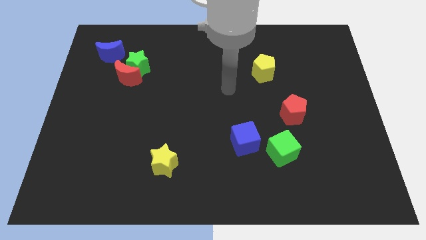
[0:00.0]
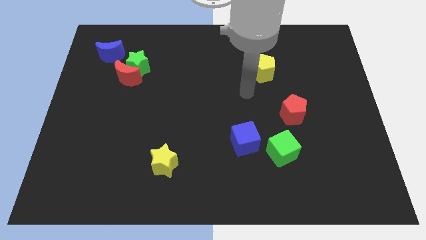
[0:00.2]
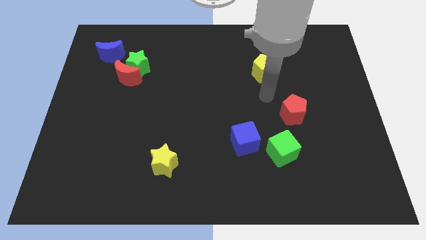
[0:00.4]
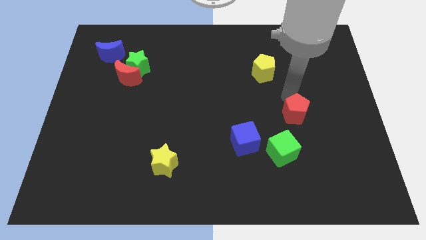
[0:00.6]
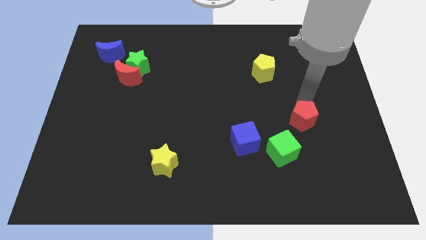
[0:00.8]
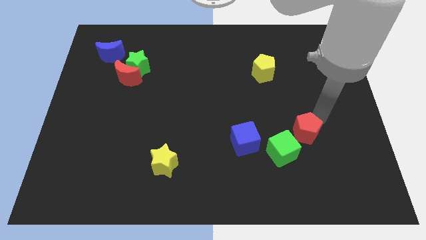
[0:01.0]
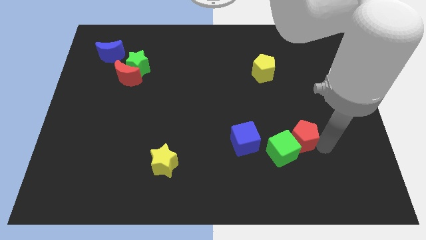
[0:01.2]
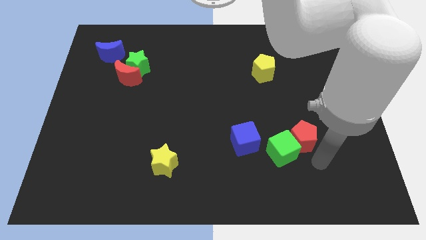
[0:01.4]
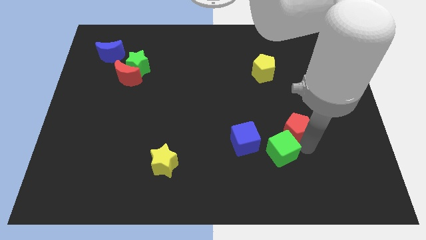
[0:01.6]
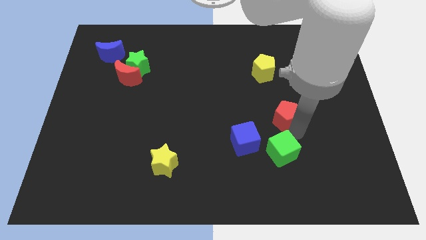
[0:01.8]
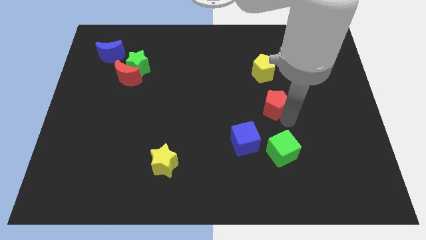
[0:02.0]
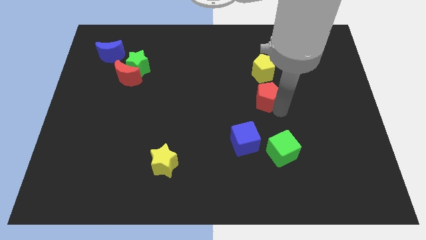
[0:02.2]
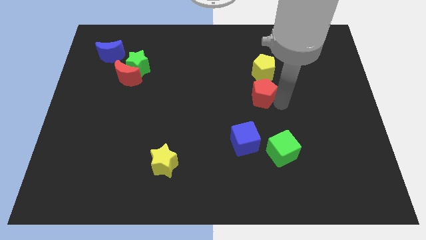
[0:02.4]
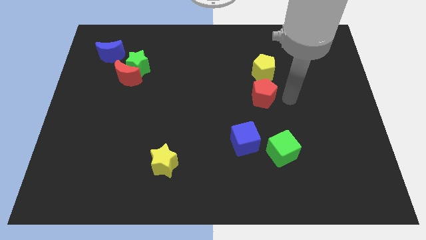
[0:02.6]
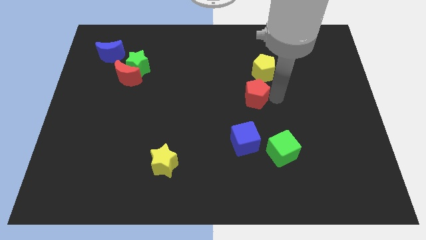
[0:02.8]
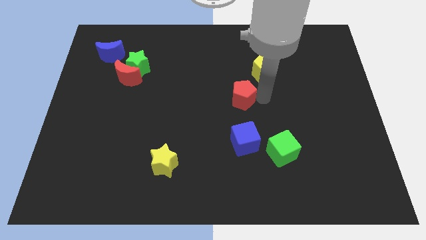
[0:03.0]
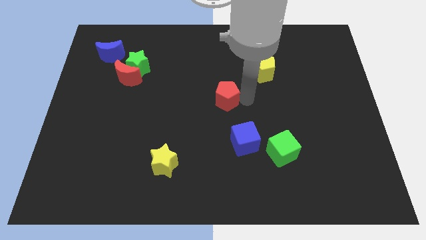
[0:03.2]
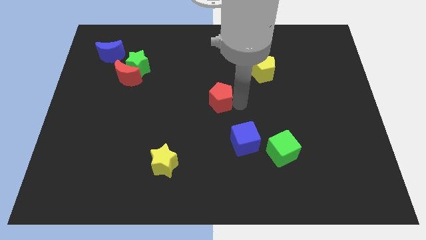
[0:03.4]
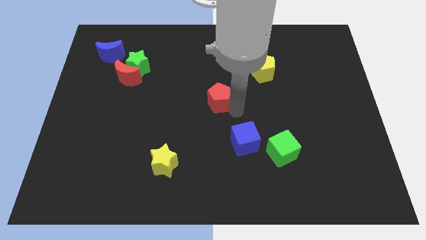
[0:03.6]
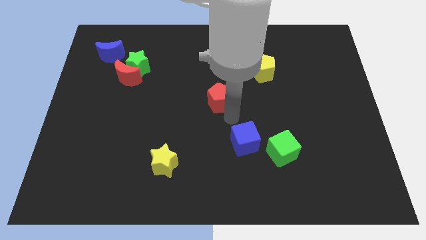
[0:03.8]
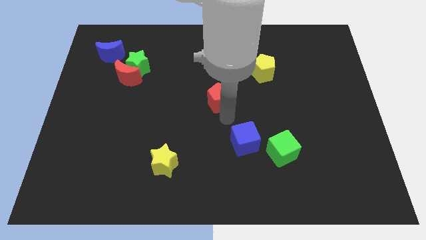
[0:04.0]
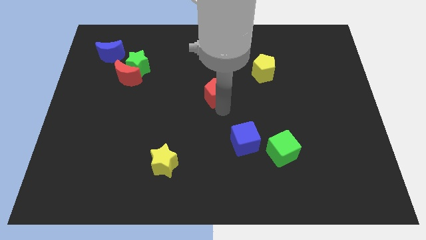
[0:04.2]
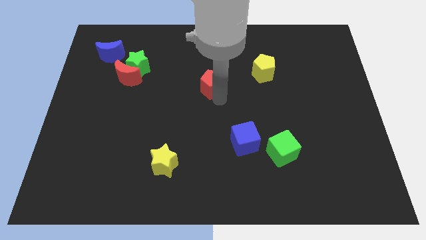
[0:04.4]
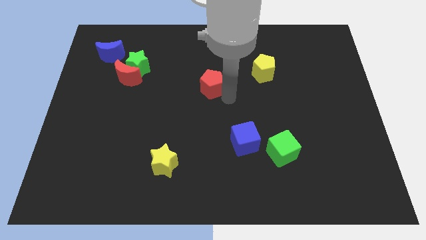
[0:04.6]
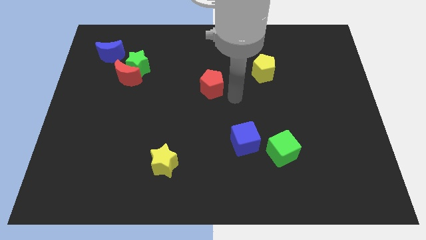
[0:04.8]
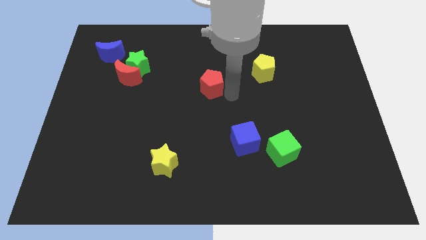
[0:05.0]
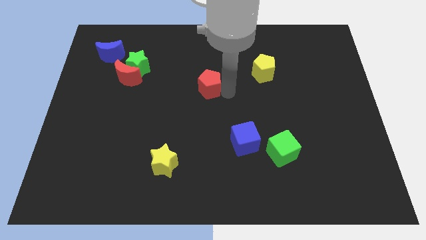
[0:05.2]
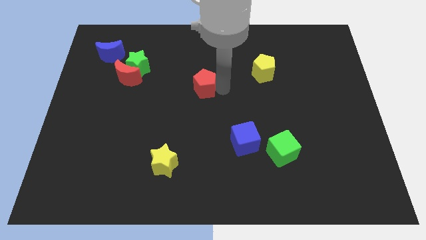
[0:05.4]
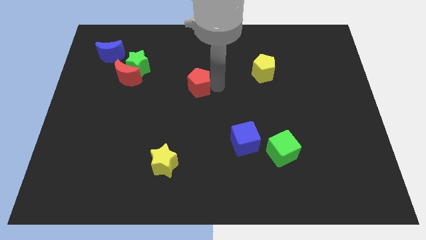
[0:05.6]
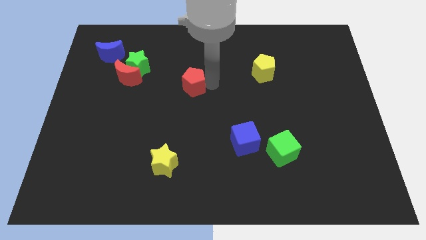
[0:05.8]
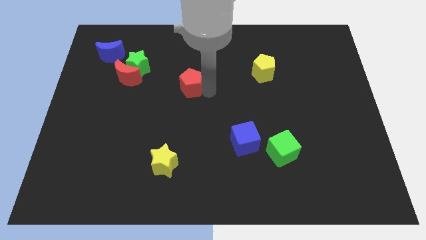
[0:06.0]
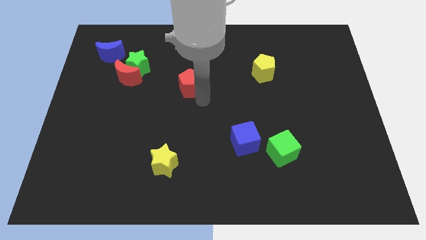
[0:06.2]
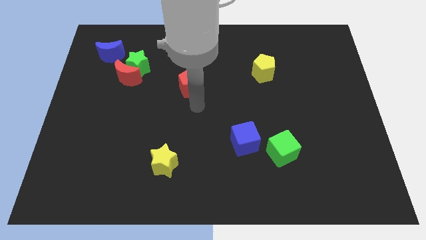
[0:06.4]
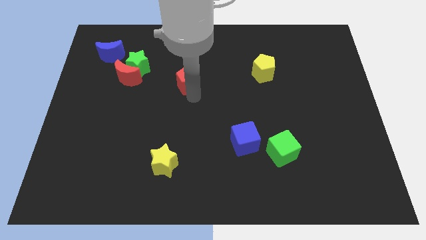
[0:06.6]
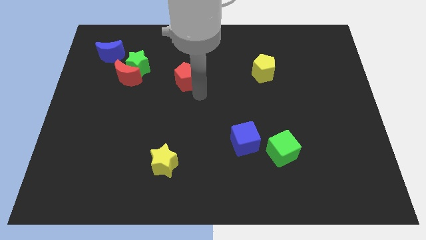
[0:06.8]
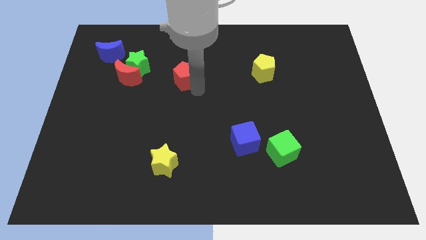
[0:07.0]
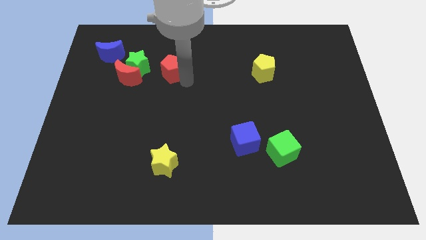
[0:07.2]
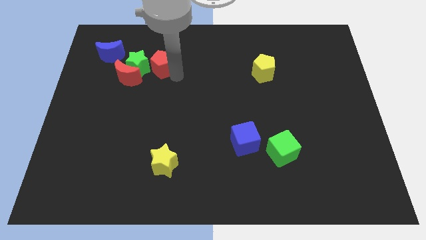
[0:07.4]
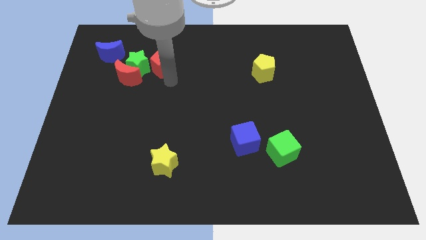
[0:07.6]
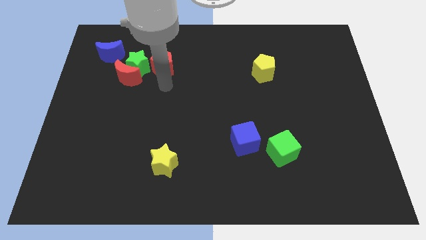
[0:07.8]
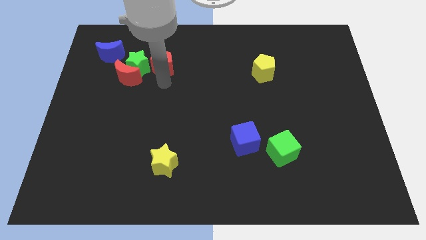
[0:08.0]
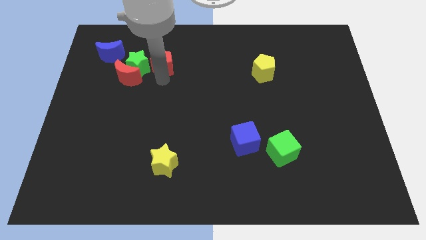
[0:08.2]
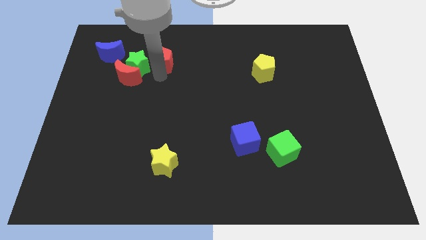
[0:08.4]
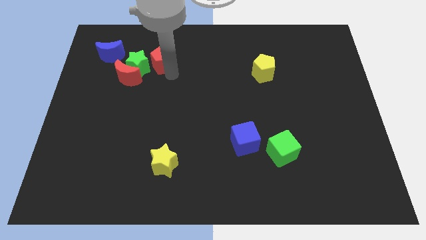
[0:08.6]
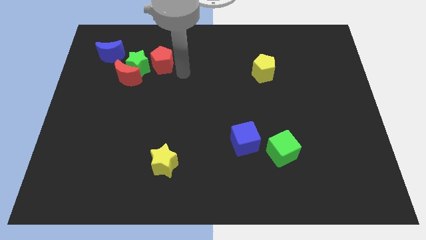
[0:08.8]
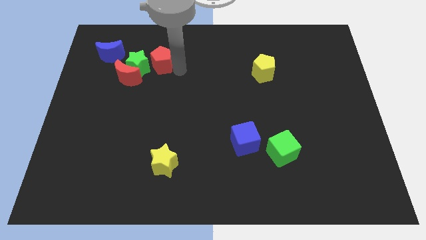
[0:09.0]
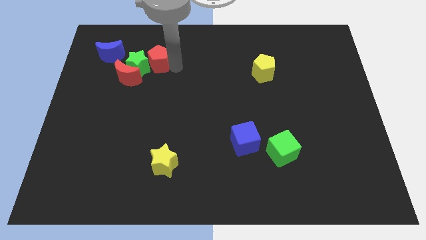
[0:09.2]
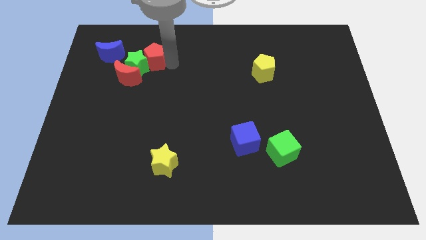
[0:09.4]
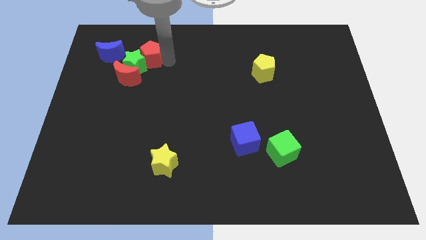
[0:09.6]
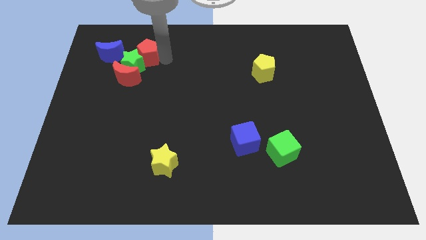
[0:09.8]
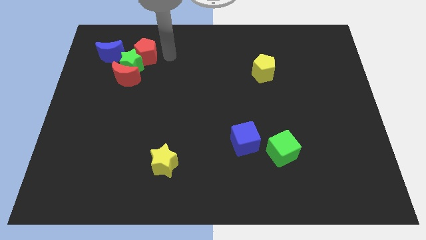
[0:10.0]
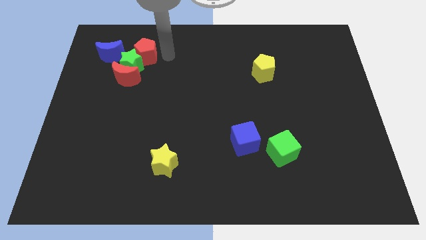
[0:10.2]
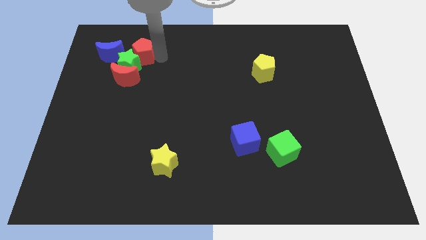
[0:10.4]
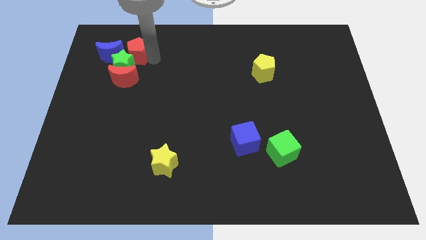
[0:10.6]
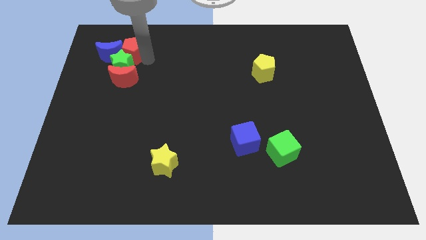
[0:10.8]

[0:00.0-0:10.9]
move the red pentagon close to the blue moon

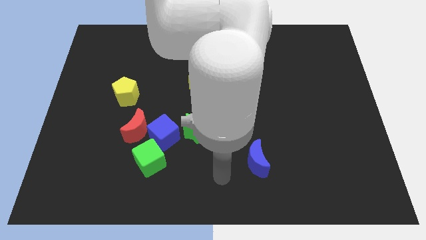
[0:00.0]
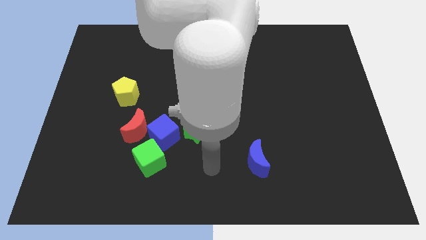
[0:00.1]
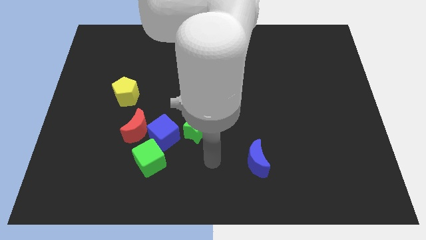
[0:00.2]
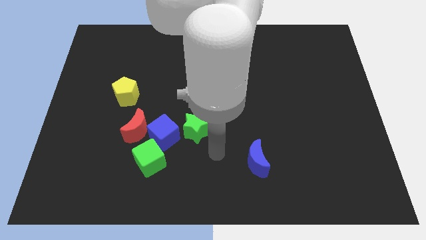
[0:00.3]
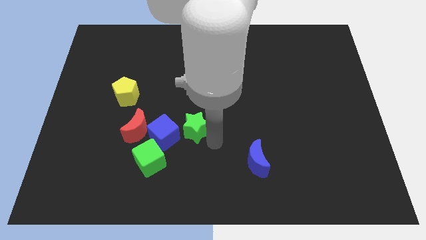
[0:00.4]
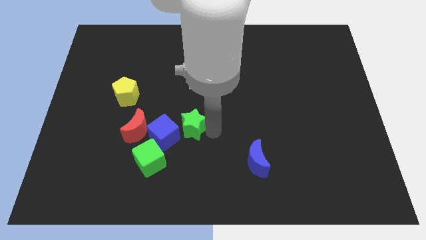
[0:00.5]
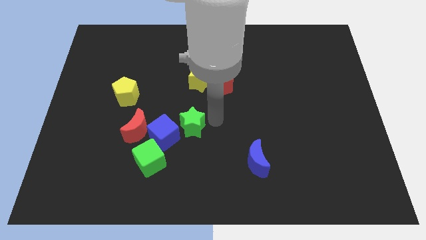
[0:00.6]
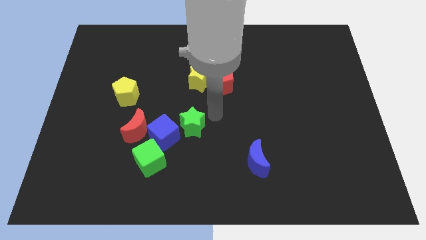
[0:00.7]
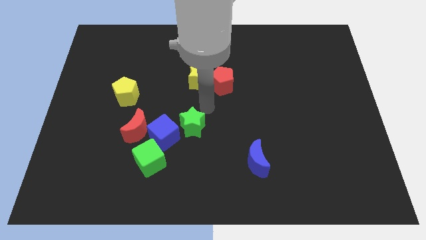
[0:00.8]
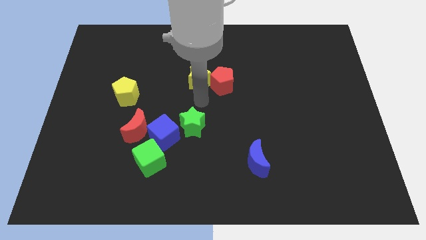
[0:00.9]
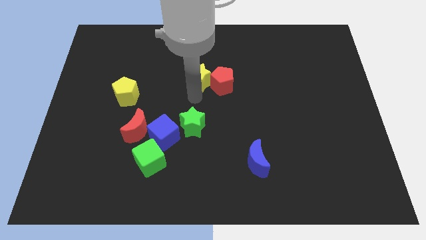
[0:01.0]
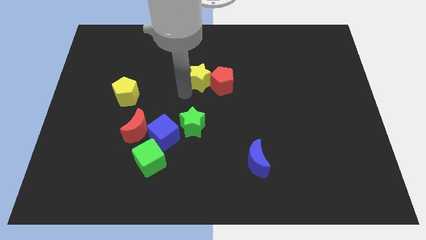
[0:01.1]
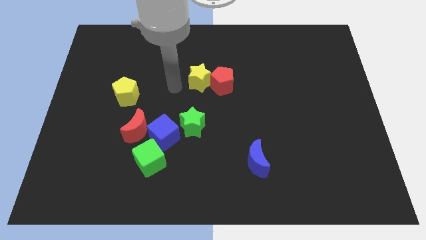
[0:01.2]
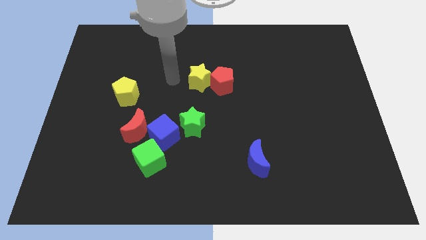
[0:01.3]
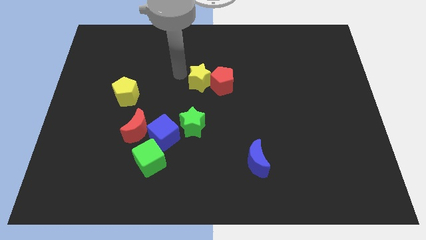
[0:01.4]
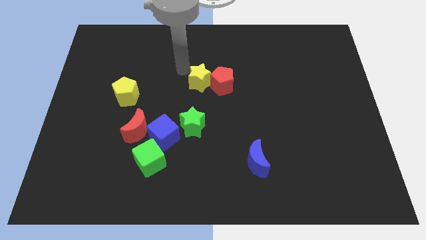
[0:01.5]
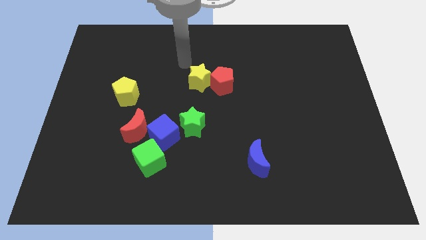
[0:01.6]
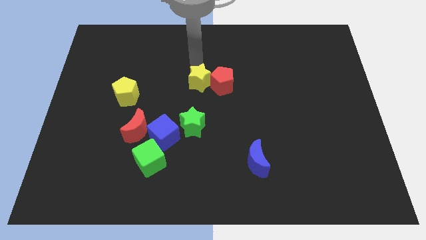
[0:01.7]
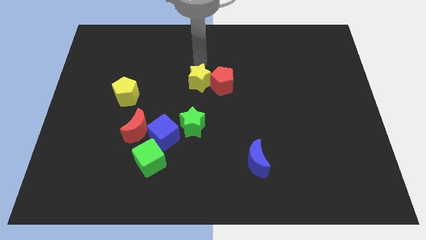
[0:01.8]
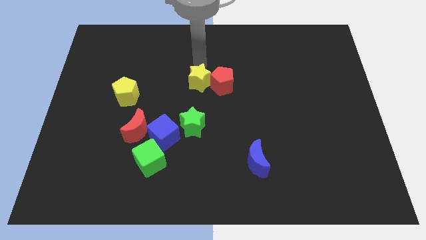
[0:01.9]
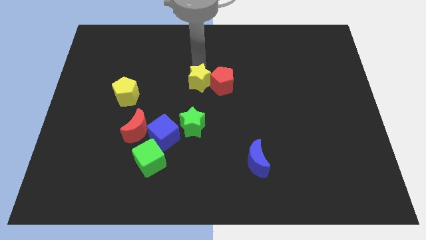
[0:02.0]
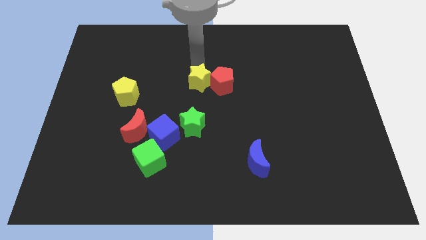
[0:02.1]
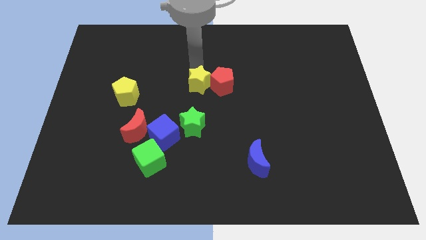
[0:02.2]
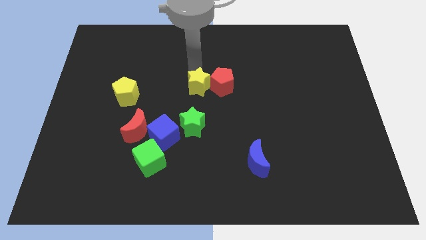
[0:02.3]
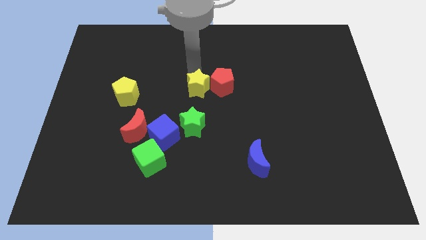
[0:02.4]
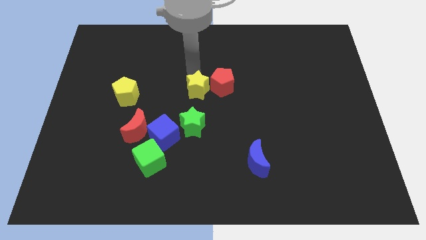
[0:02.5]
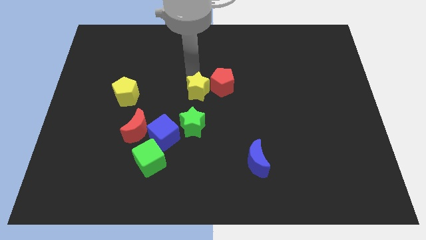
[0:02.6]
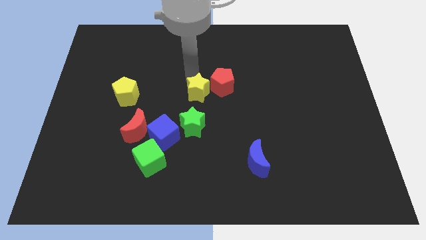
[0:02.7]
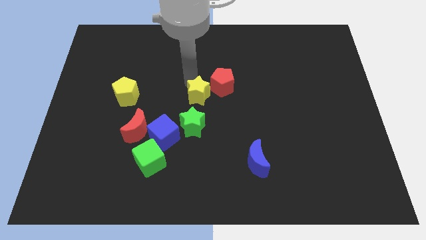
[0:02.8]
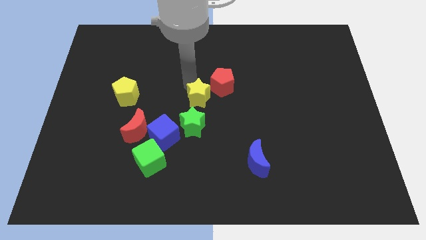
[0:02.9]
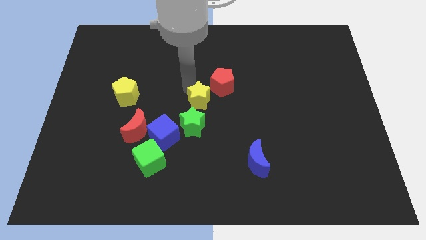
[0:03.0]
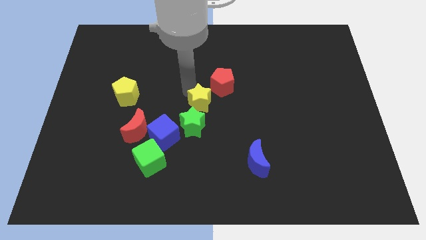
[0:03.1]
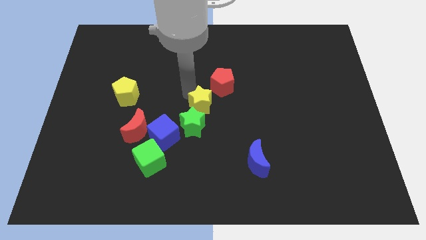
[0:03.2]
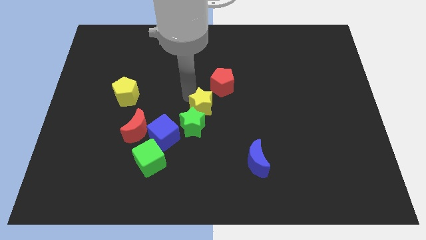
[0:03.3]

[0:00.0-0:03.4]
slide the yellow star close to the green star
